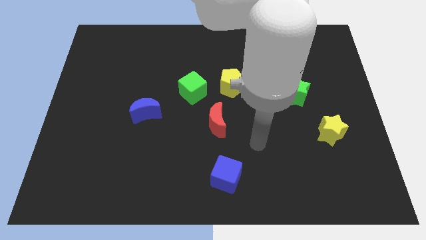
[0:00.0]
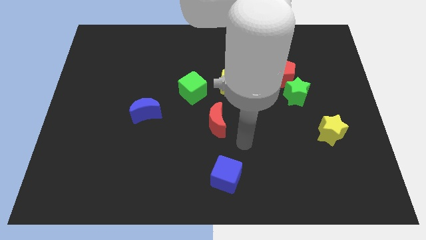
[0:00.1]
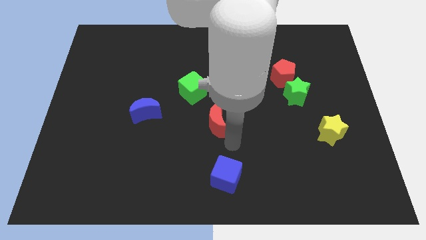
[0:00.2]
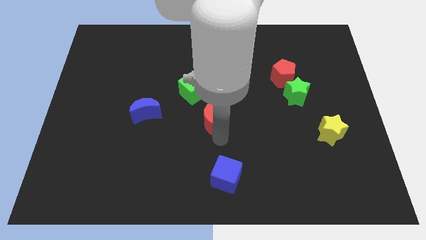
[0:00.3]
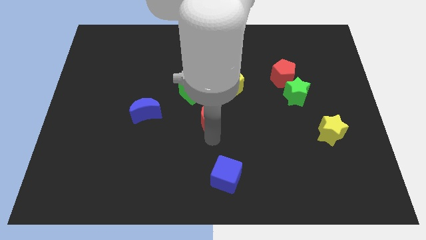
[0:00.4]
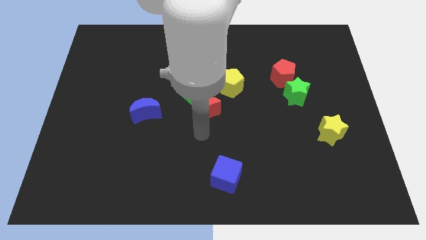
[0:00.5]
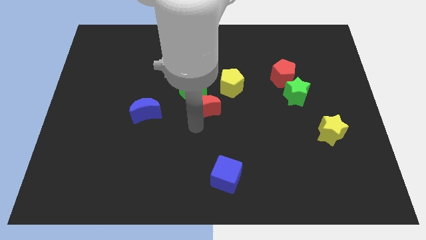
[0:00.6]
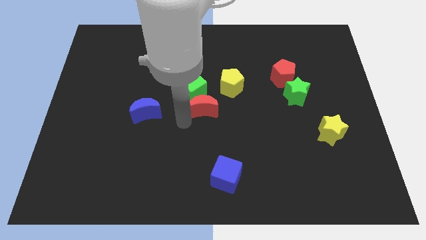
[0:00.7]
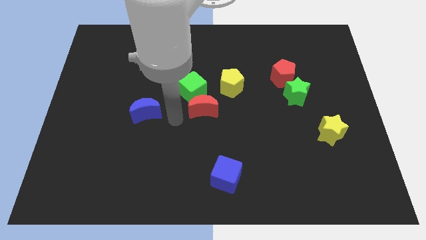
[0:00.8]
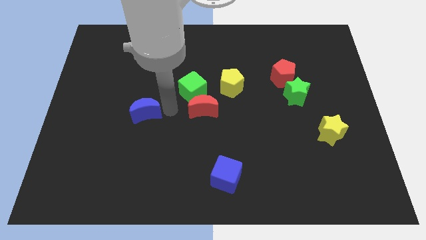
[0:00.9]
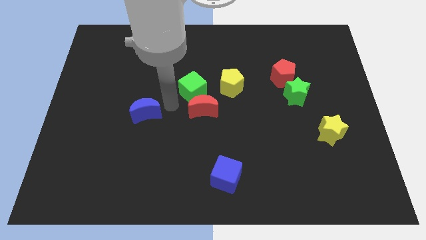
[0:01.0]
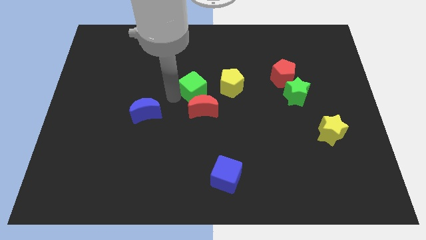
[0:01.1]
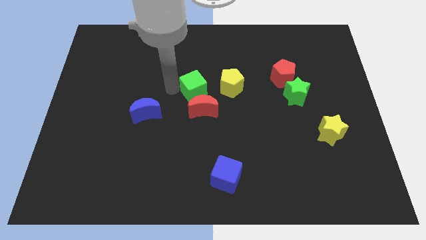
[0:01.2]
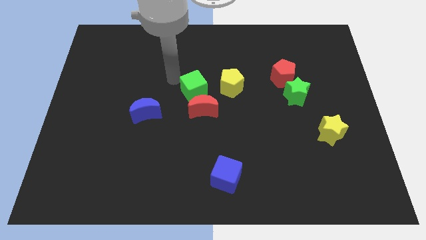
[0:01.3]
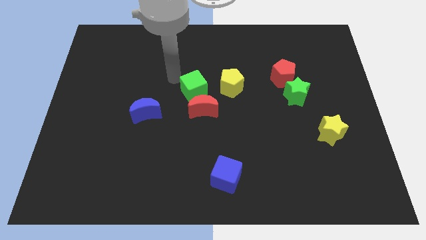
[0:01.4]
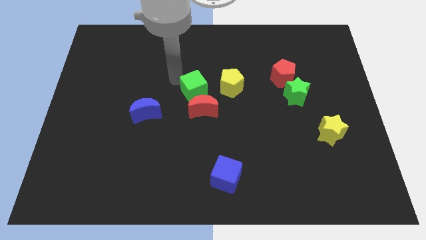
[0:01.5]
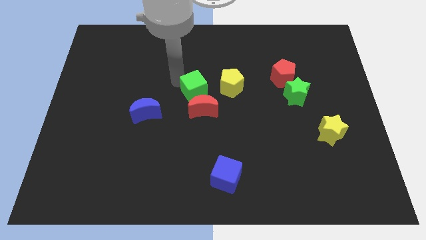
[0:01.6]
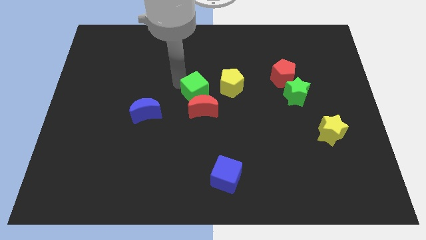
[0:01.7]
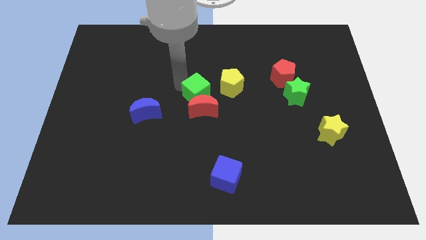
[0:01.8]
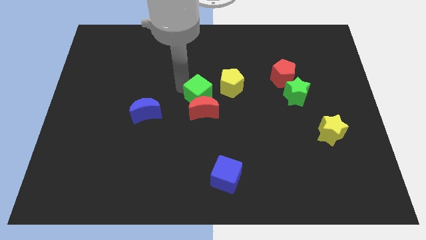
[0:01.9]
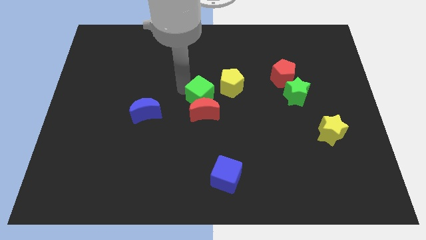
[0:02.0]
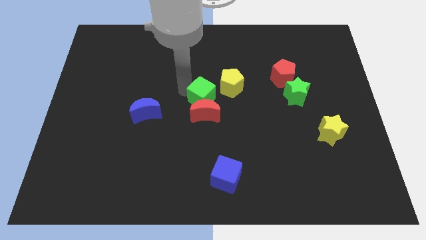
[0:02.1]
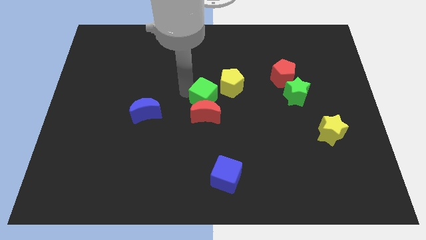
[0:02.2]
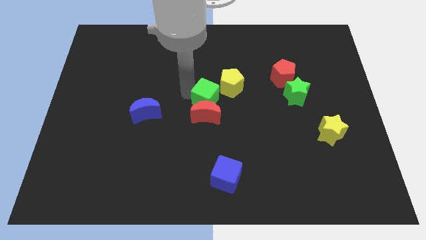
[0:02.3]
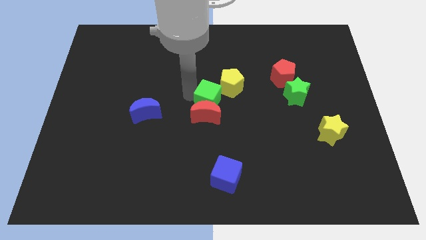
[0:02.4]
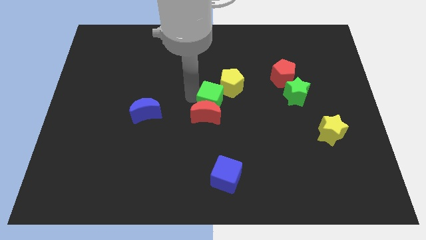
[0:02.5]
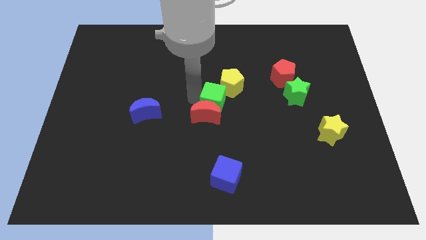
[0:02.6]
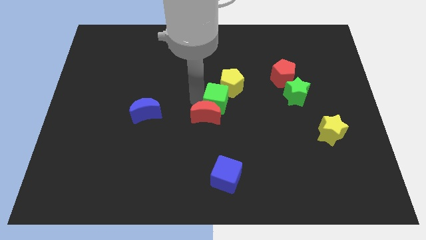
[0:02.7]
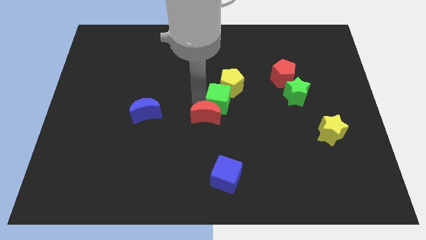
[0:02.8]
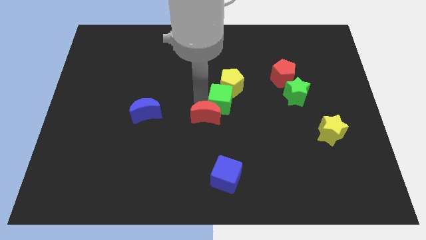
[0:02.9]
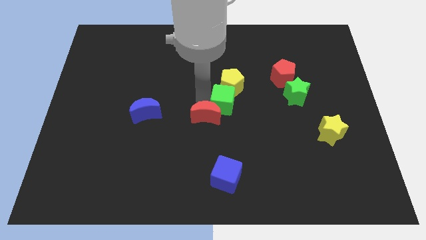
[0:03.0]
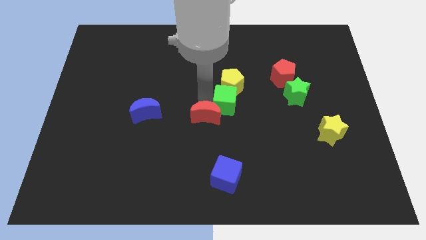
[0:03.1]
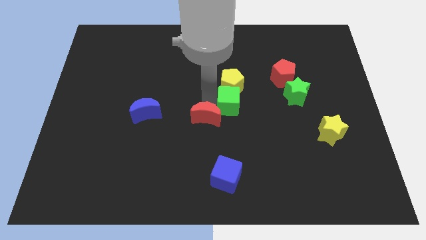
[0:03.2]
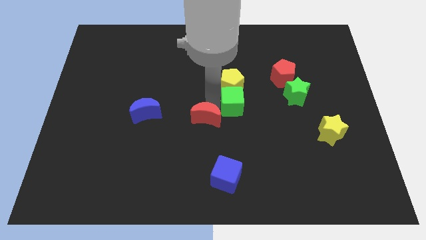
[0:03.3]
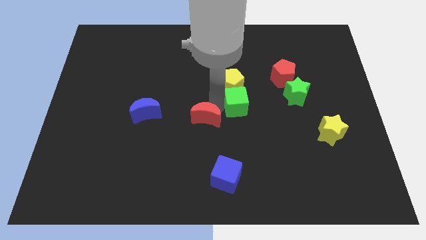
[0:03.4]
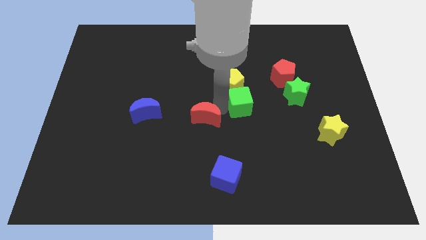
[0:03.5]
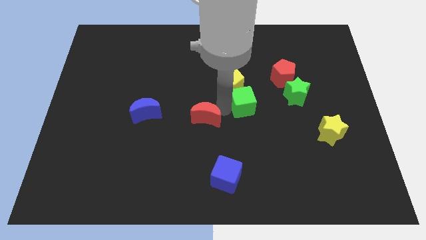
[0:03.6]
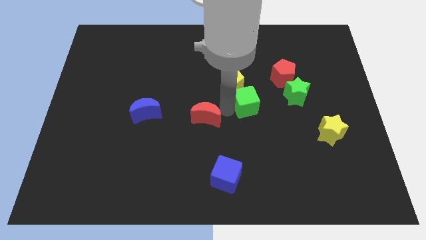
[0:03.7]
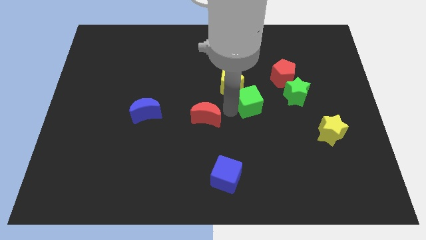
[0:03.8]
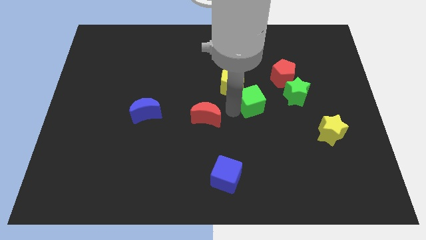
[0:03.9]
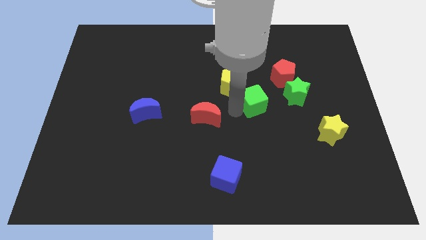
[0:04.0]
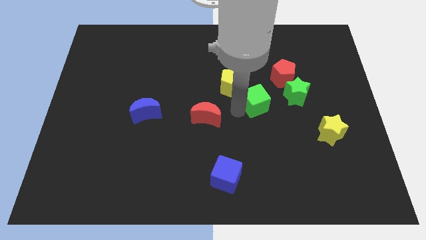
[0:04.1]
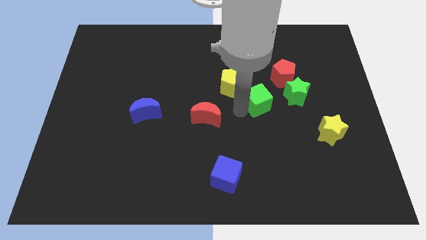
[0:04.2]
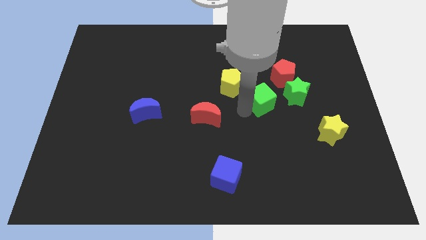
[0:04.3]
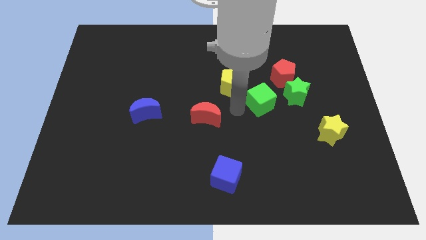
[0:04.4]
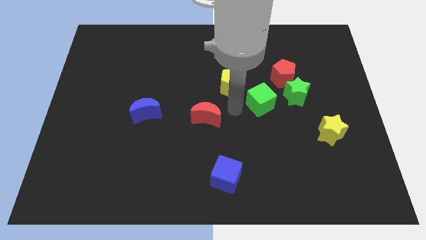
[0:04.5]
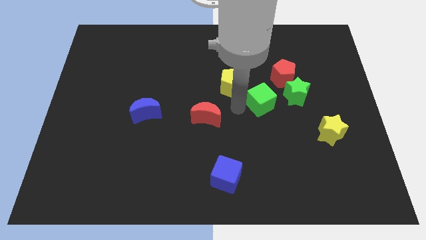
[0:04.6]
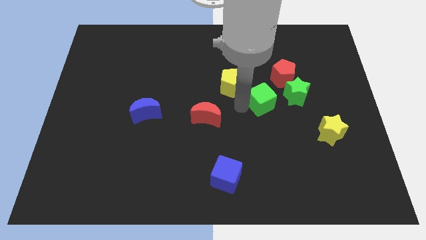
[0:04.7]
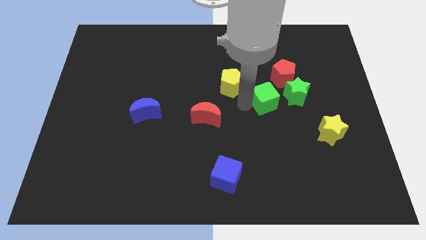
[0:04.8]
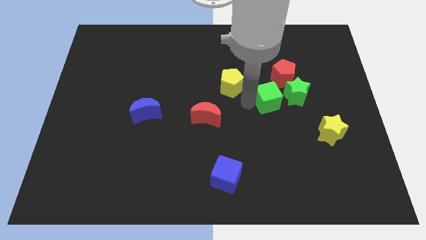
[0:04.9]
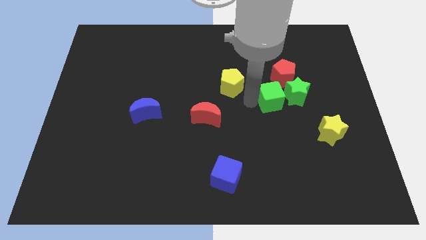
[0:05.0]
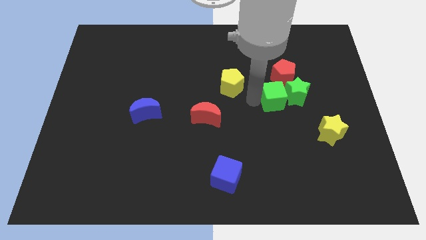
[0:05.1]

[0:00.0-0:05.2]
slide the green cube next to the green star

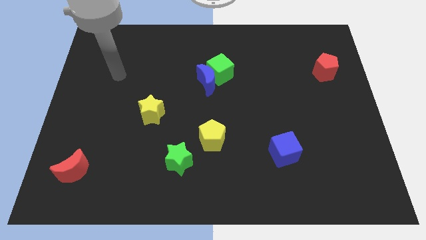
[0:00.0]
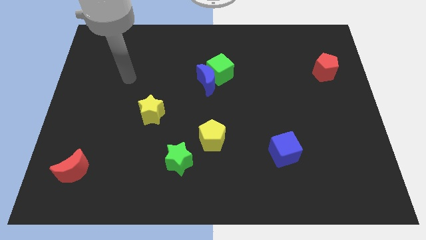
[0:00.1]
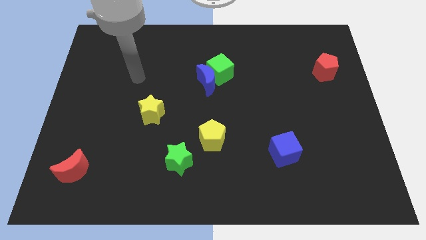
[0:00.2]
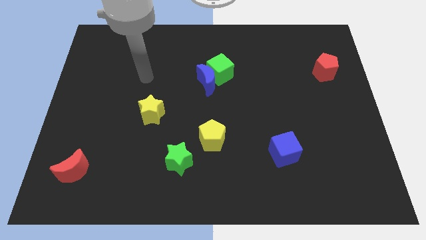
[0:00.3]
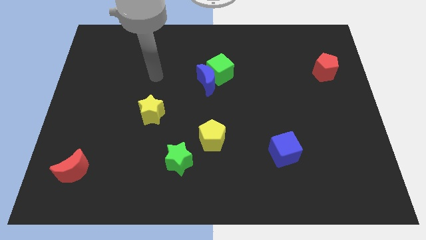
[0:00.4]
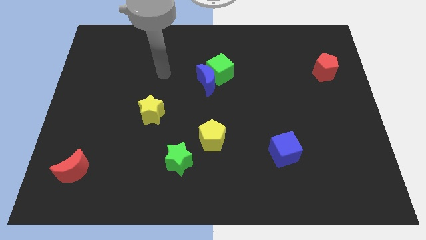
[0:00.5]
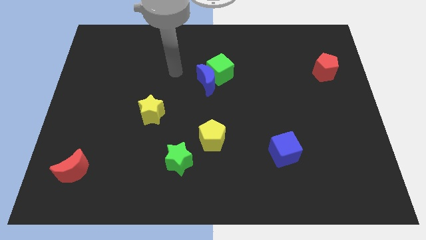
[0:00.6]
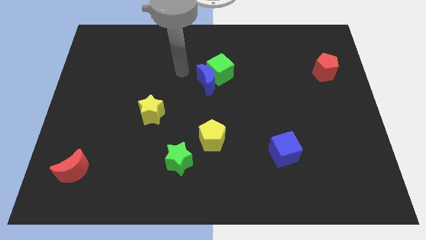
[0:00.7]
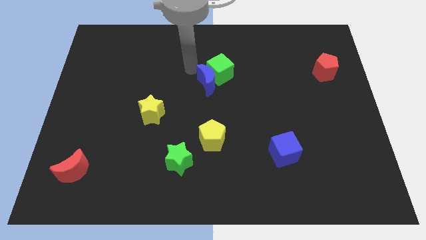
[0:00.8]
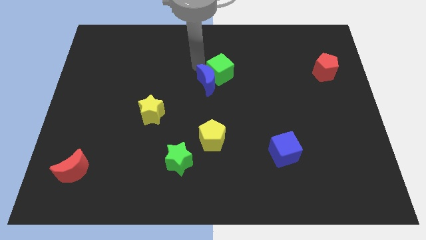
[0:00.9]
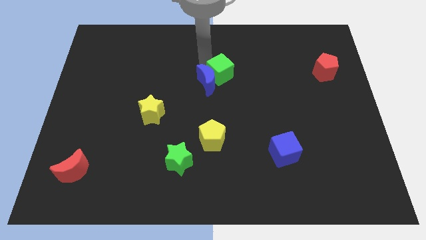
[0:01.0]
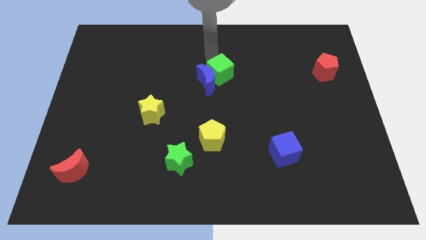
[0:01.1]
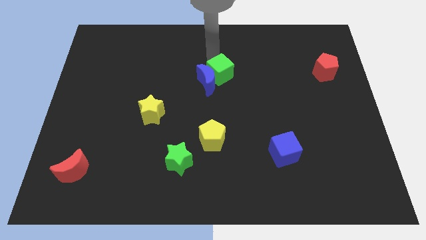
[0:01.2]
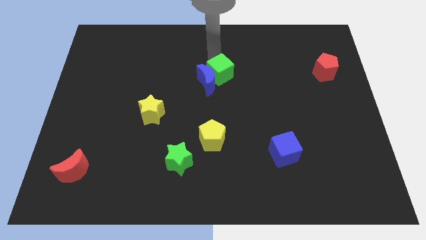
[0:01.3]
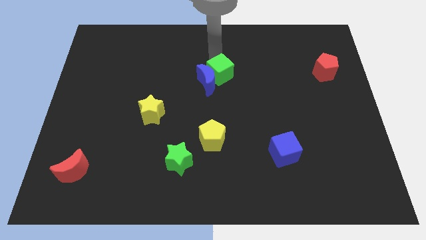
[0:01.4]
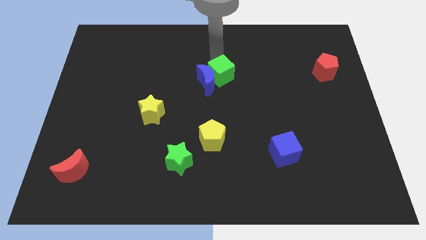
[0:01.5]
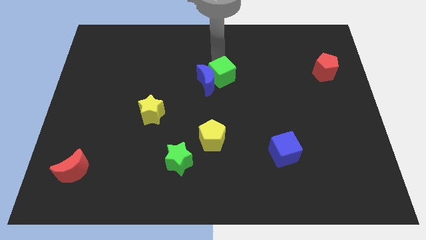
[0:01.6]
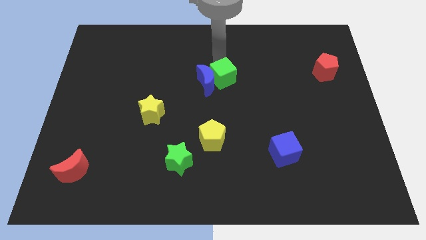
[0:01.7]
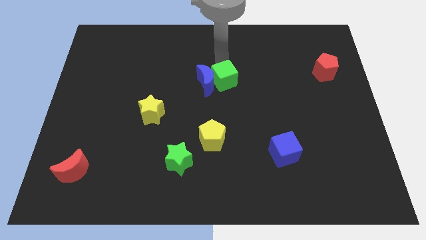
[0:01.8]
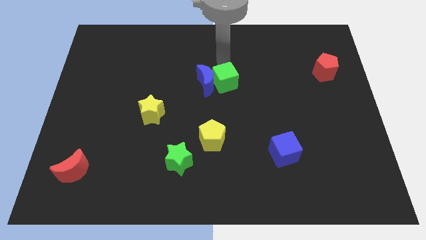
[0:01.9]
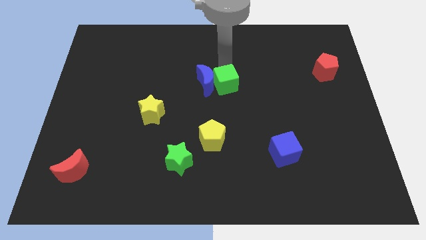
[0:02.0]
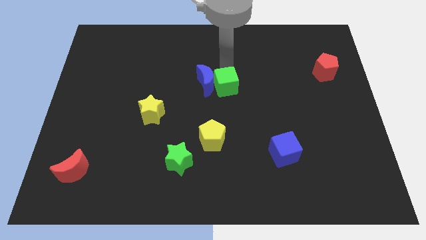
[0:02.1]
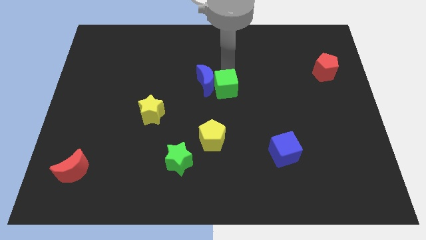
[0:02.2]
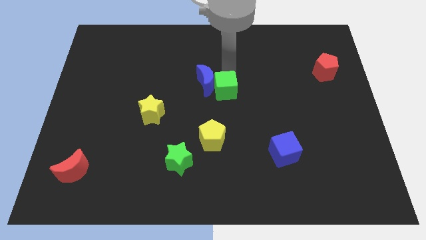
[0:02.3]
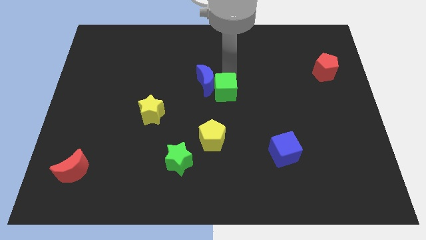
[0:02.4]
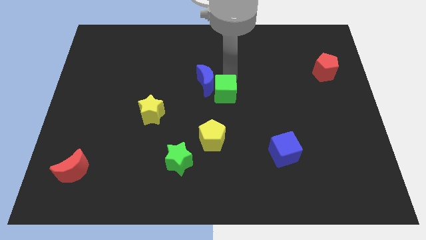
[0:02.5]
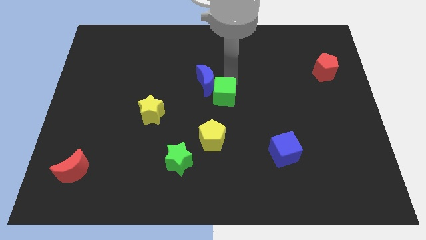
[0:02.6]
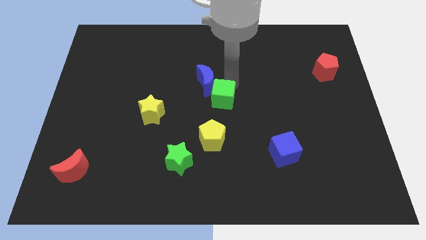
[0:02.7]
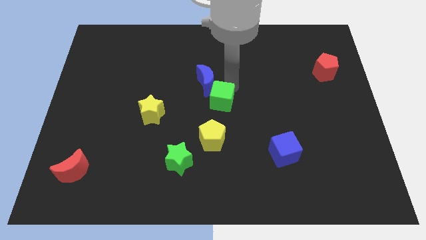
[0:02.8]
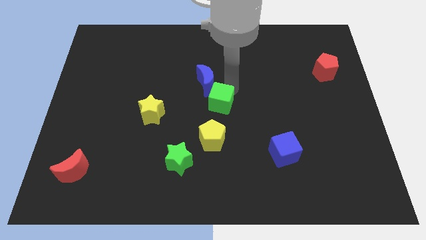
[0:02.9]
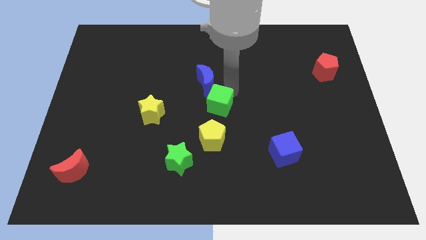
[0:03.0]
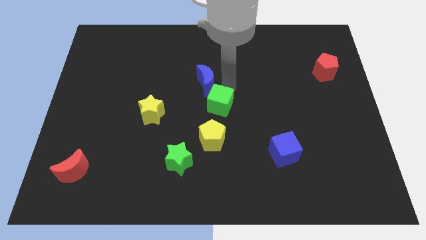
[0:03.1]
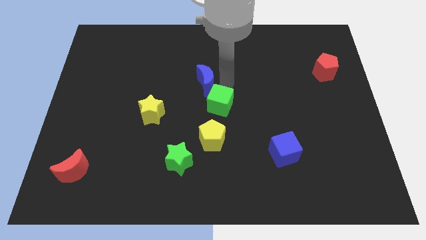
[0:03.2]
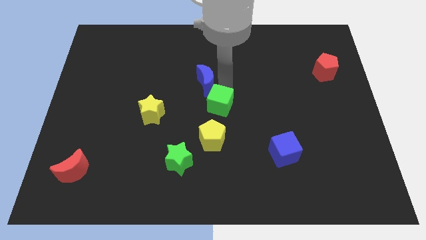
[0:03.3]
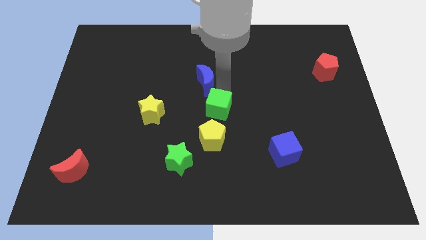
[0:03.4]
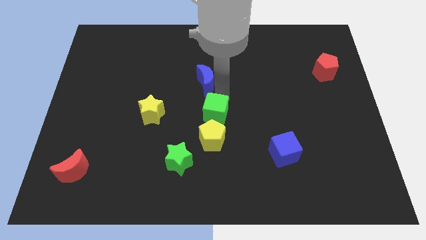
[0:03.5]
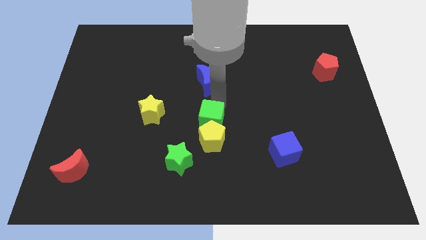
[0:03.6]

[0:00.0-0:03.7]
put the green cube close to the yellow pentagon
